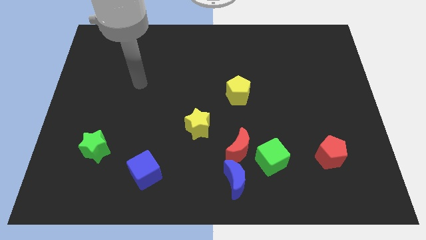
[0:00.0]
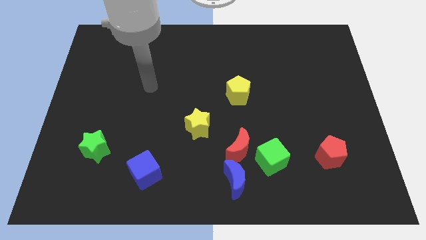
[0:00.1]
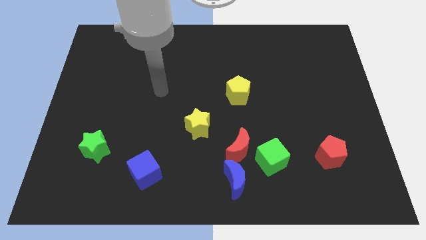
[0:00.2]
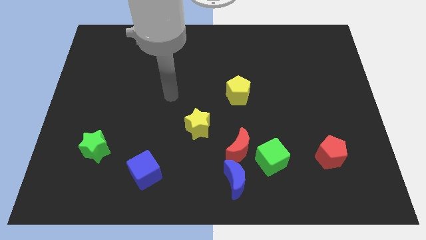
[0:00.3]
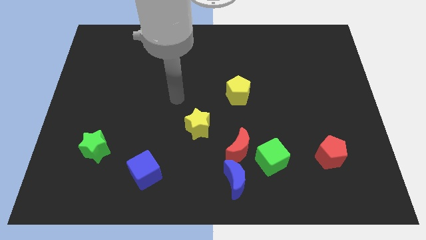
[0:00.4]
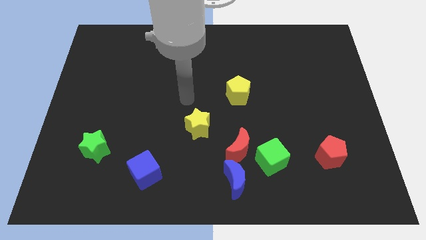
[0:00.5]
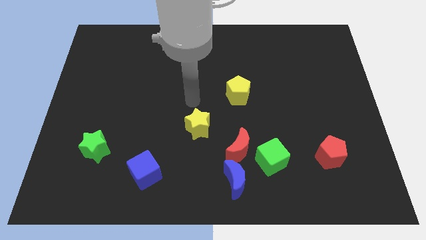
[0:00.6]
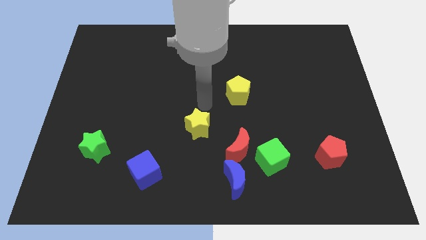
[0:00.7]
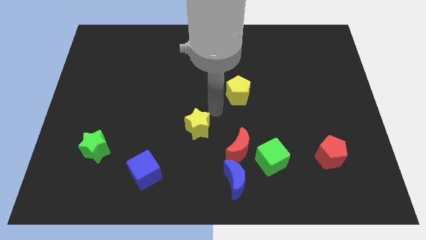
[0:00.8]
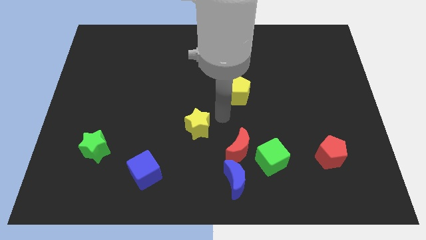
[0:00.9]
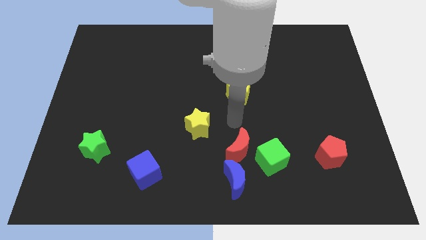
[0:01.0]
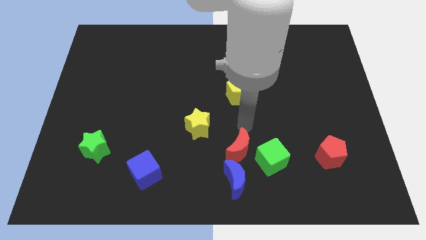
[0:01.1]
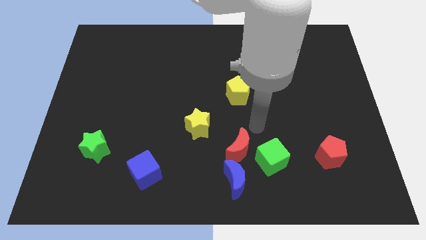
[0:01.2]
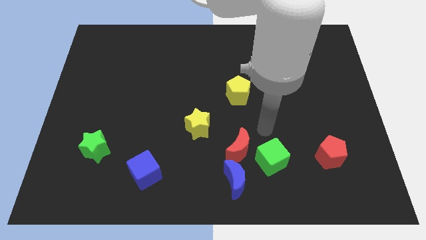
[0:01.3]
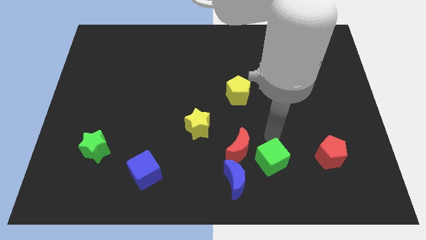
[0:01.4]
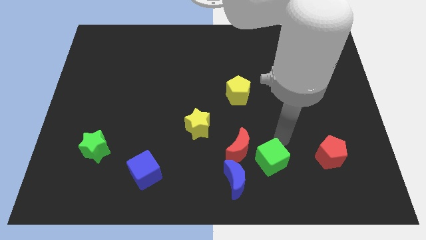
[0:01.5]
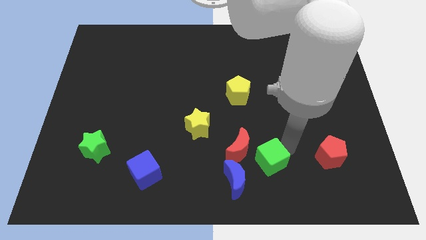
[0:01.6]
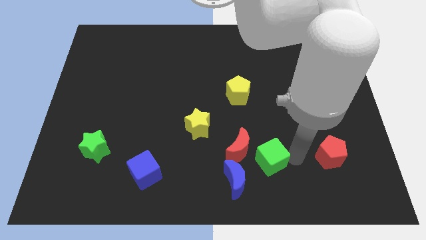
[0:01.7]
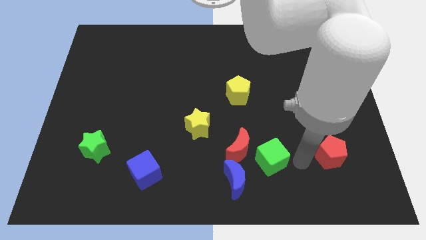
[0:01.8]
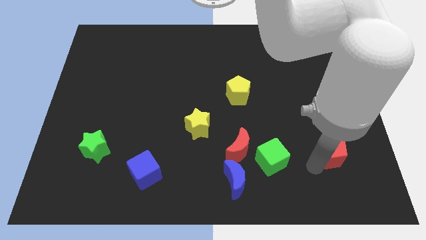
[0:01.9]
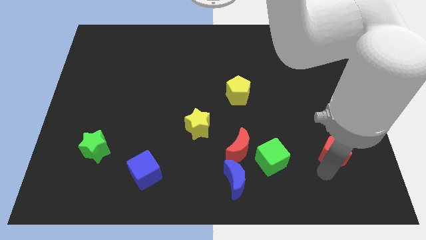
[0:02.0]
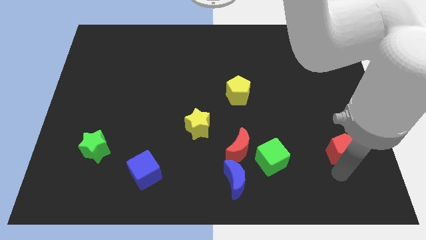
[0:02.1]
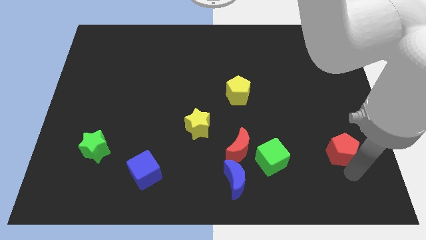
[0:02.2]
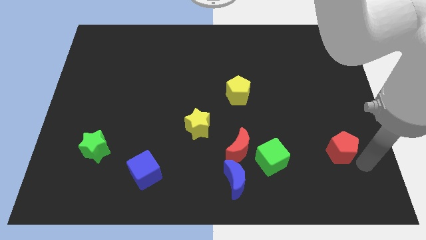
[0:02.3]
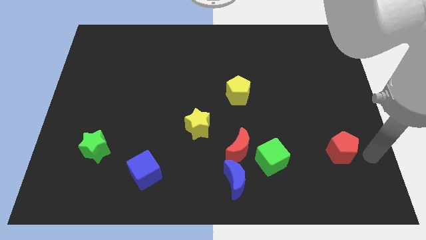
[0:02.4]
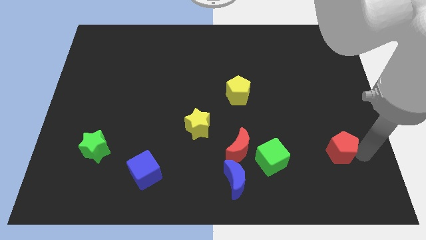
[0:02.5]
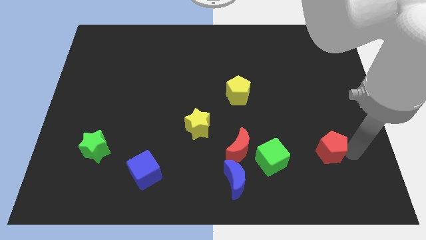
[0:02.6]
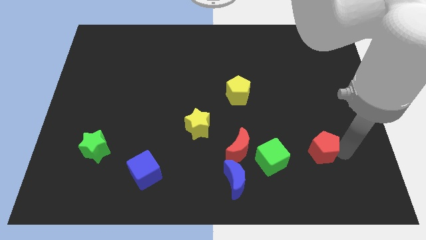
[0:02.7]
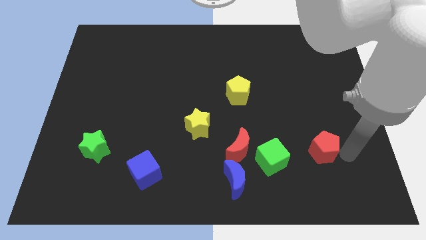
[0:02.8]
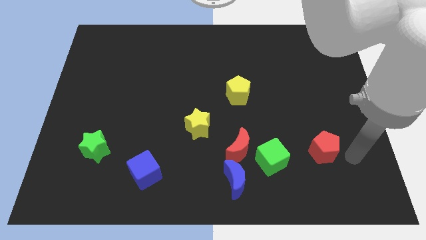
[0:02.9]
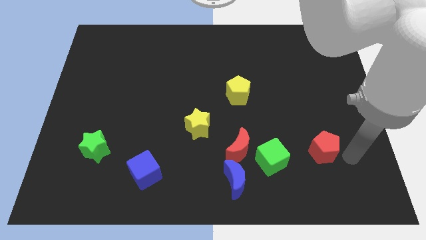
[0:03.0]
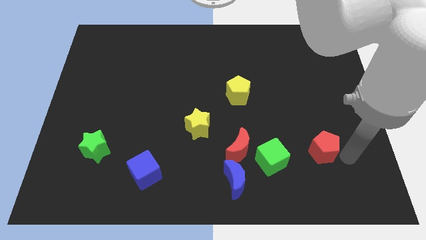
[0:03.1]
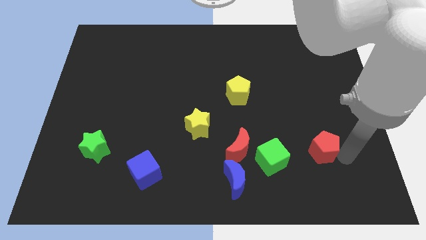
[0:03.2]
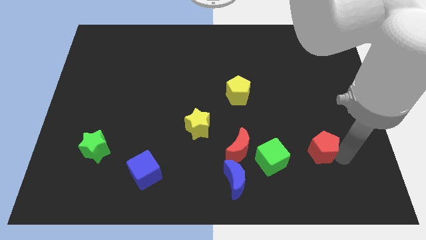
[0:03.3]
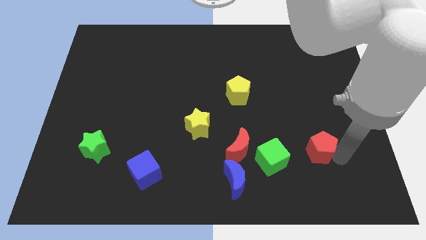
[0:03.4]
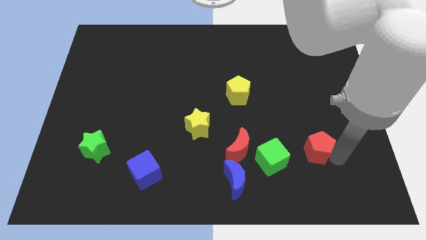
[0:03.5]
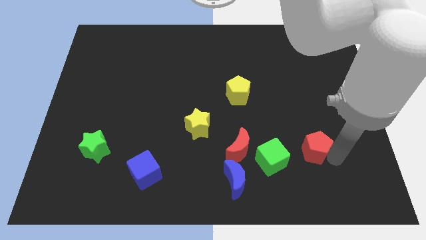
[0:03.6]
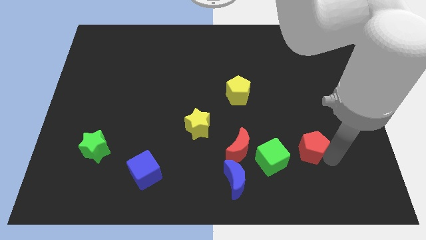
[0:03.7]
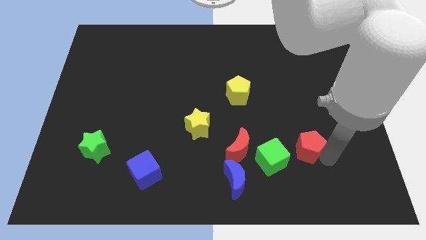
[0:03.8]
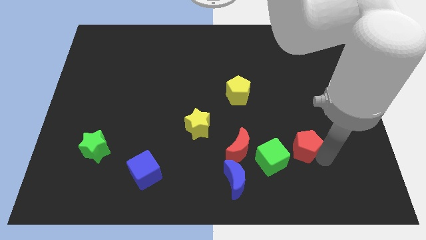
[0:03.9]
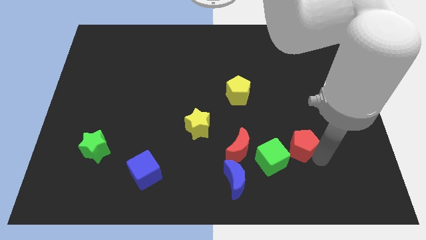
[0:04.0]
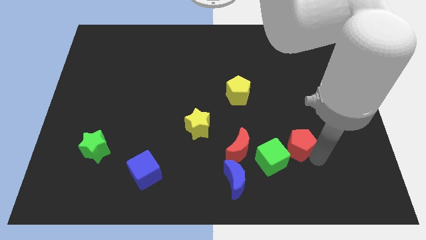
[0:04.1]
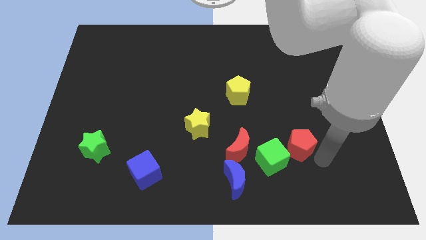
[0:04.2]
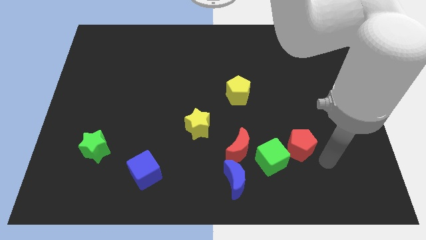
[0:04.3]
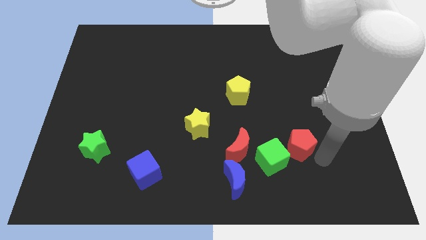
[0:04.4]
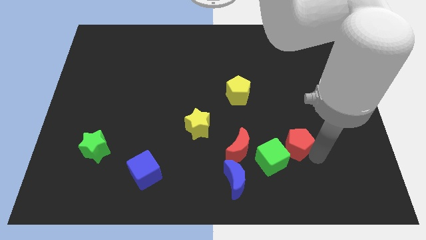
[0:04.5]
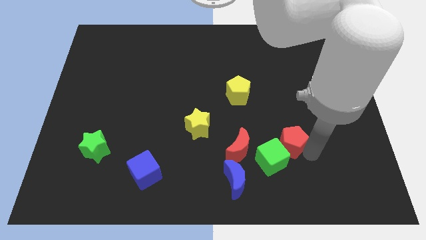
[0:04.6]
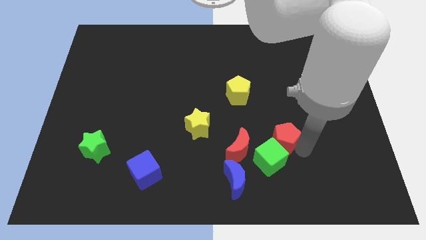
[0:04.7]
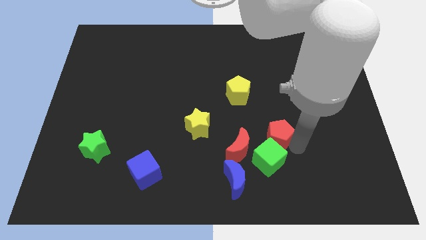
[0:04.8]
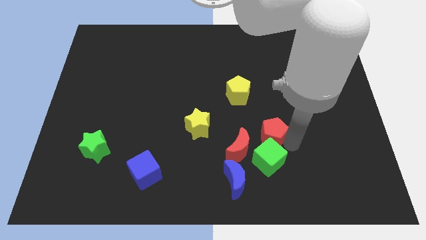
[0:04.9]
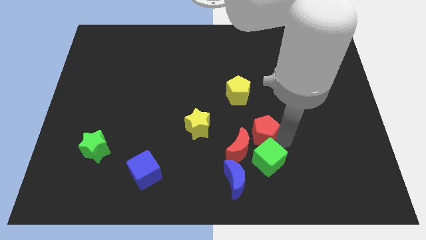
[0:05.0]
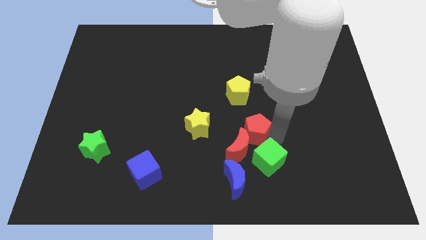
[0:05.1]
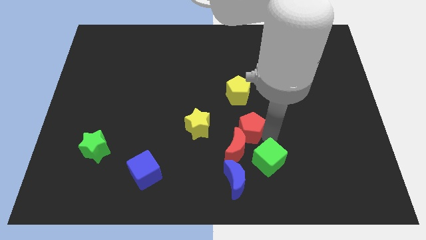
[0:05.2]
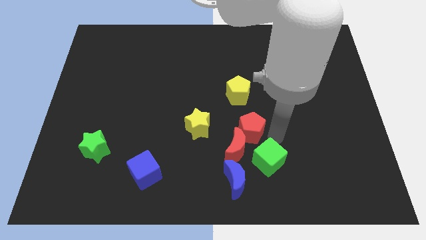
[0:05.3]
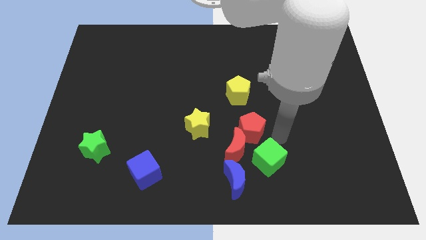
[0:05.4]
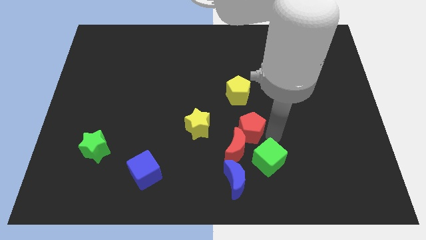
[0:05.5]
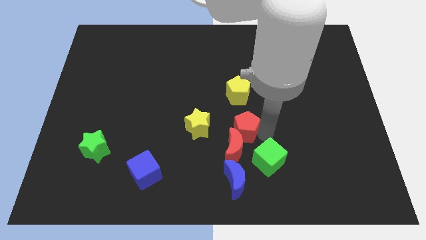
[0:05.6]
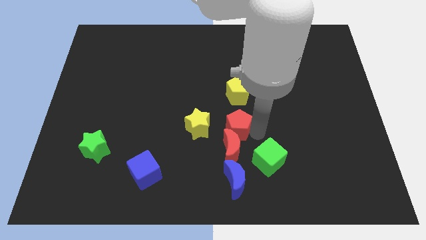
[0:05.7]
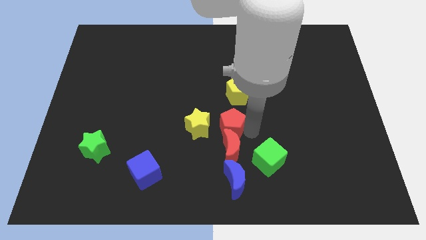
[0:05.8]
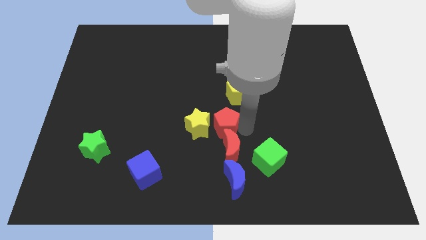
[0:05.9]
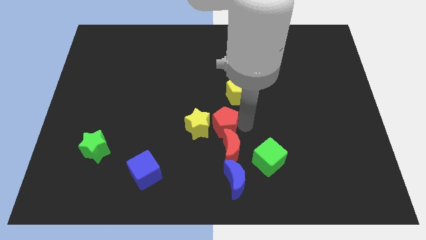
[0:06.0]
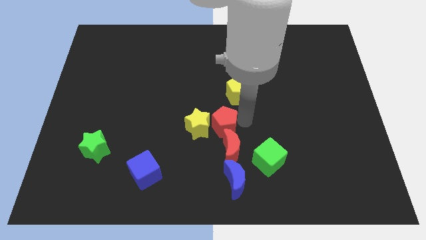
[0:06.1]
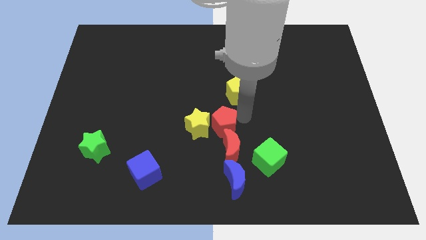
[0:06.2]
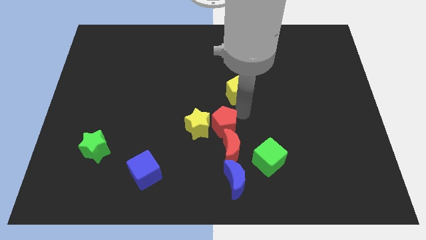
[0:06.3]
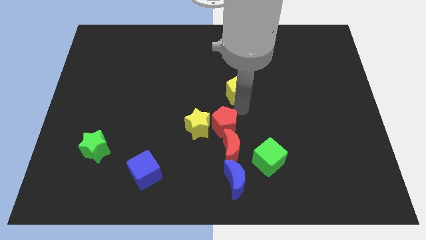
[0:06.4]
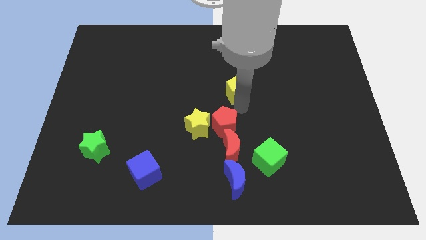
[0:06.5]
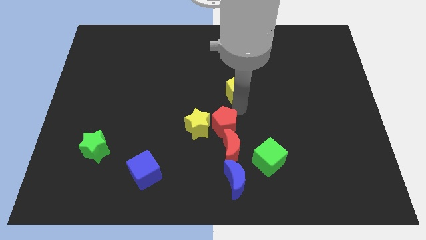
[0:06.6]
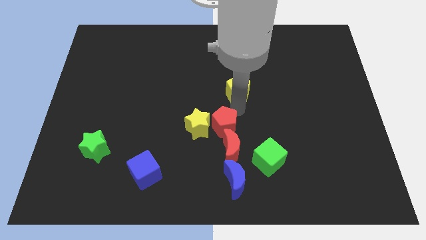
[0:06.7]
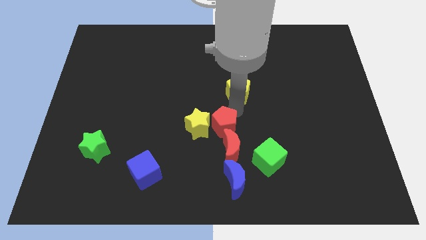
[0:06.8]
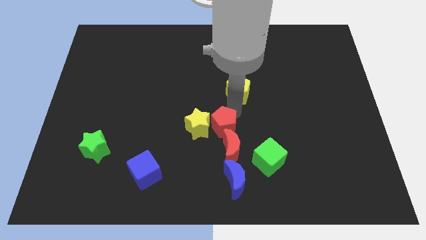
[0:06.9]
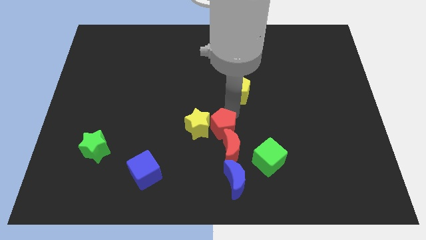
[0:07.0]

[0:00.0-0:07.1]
push the red pentagon left

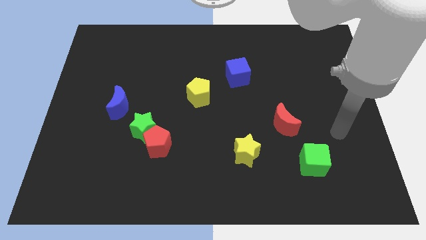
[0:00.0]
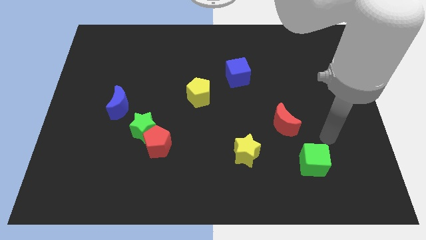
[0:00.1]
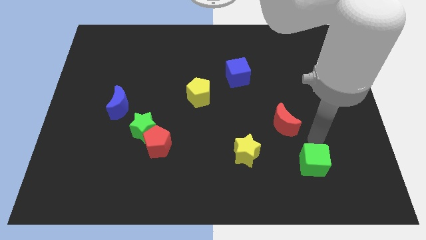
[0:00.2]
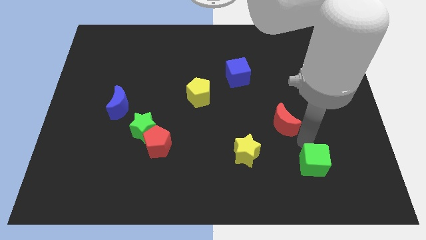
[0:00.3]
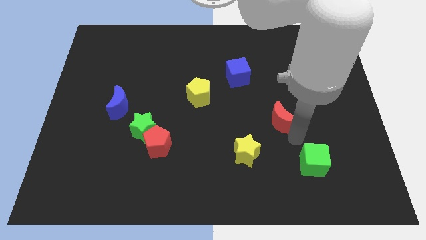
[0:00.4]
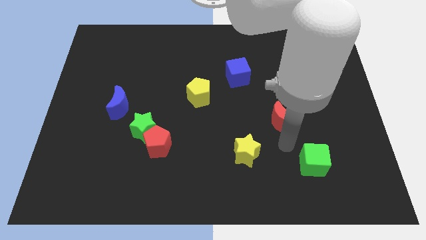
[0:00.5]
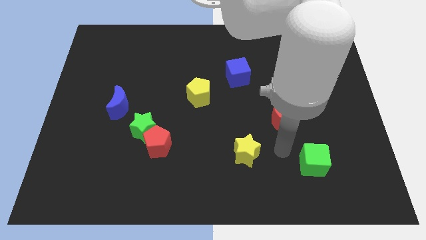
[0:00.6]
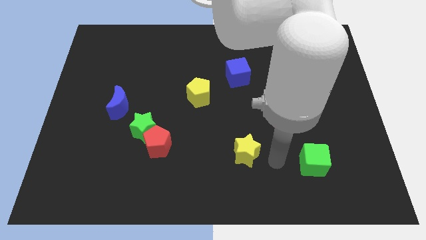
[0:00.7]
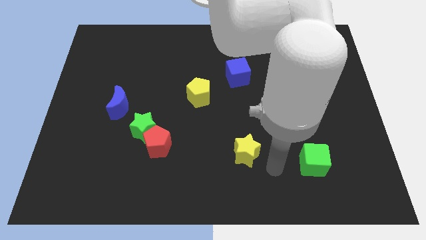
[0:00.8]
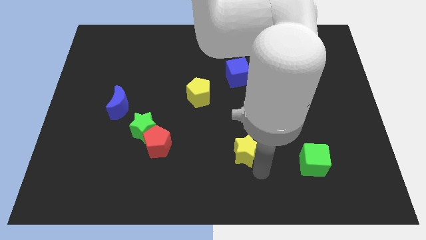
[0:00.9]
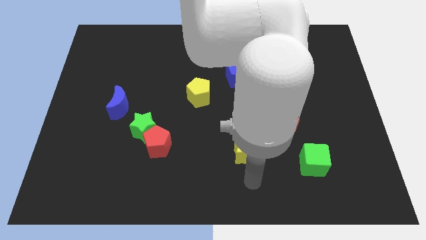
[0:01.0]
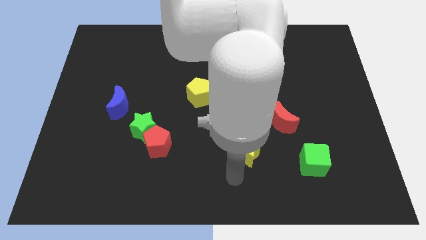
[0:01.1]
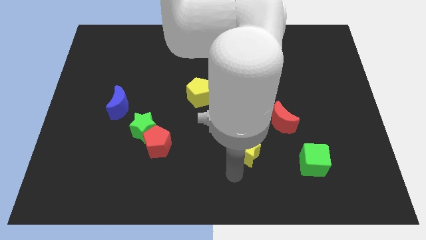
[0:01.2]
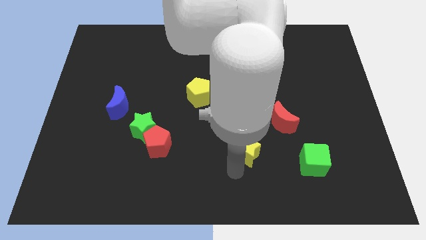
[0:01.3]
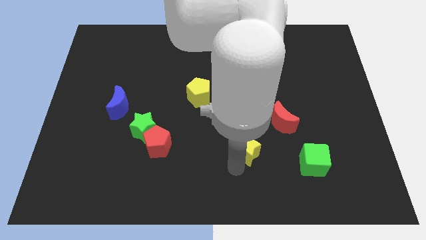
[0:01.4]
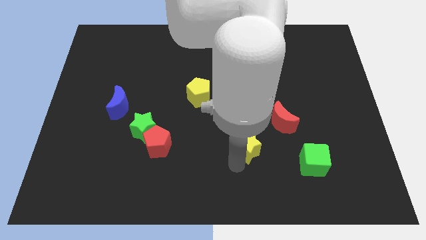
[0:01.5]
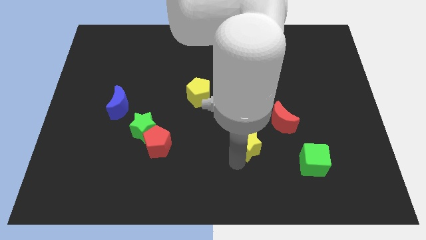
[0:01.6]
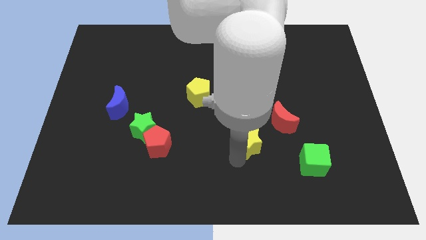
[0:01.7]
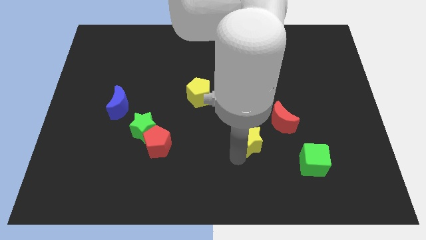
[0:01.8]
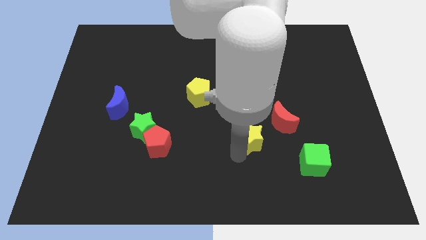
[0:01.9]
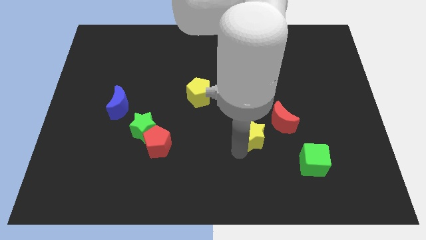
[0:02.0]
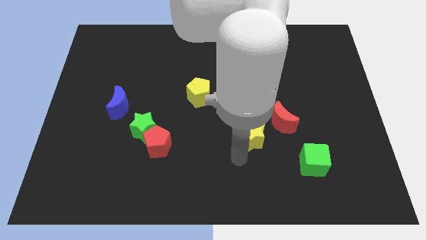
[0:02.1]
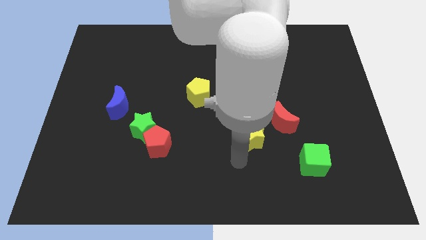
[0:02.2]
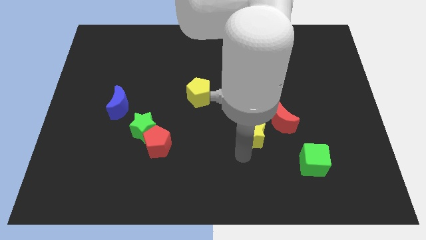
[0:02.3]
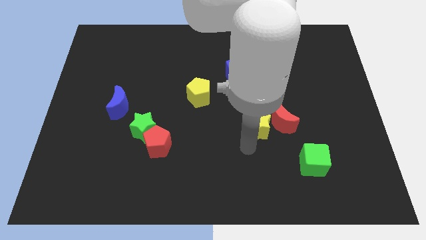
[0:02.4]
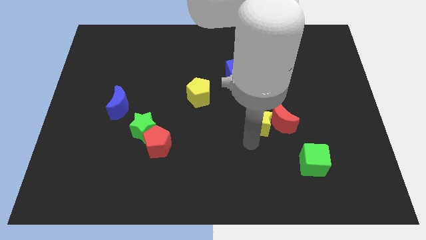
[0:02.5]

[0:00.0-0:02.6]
slide the yellow star upwards and to the right a little
